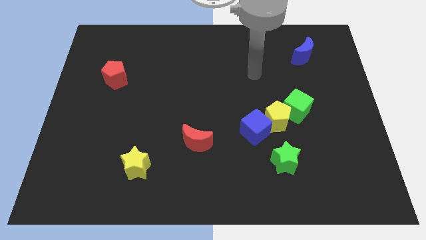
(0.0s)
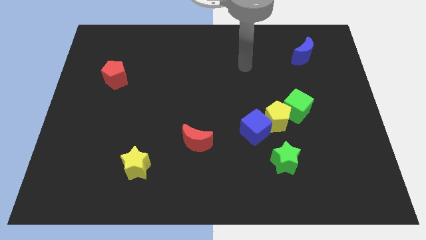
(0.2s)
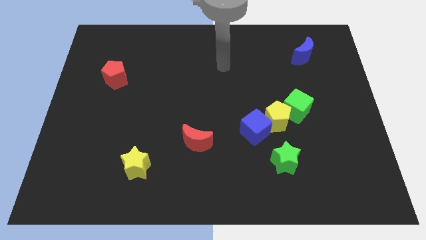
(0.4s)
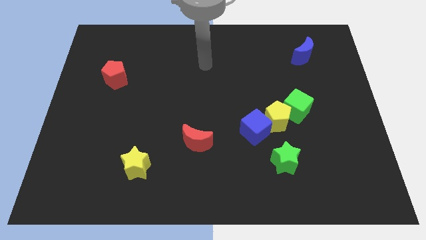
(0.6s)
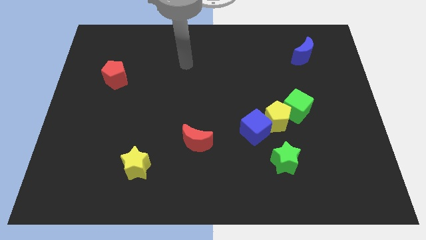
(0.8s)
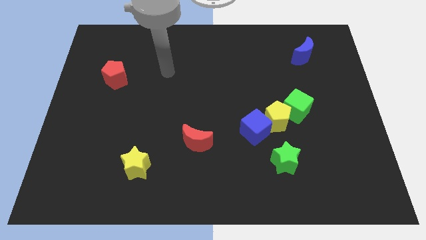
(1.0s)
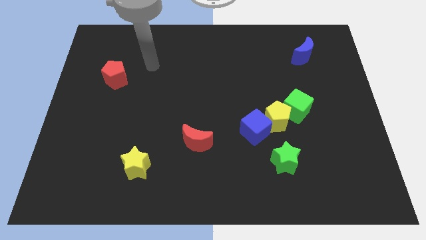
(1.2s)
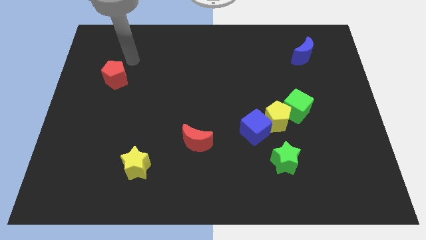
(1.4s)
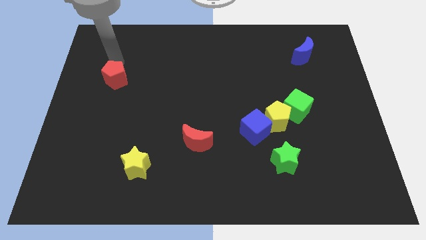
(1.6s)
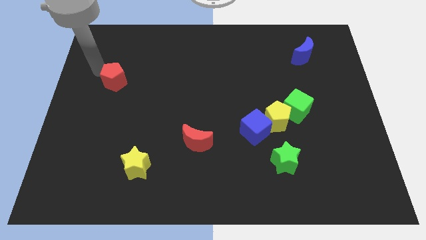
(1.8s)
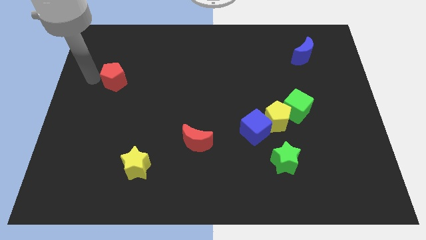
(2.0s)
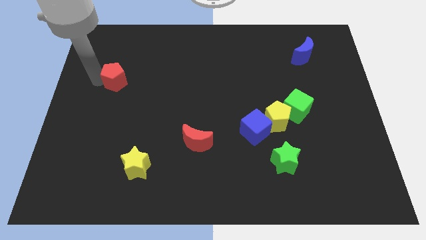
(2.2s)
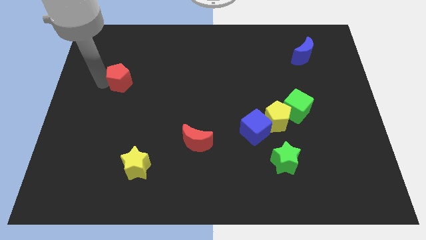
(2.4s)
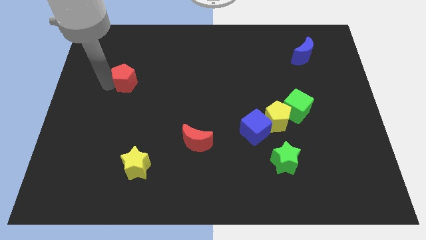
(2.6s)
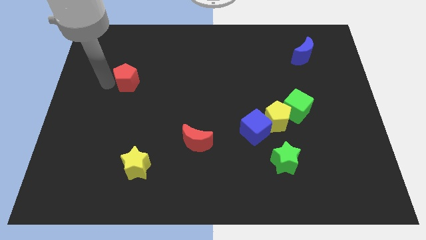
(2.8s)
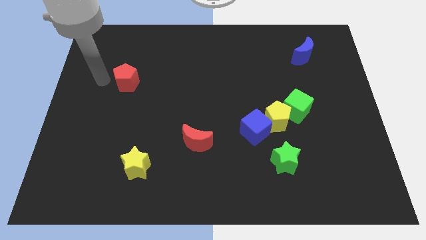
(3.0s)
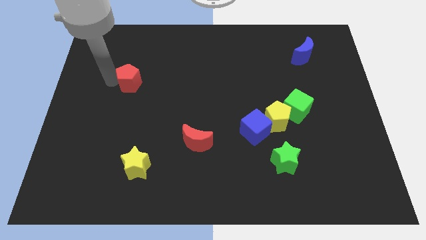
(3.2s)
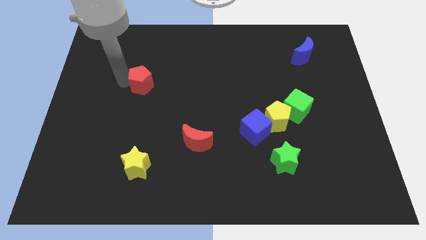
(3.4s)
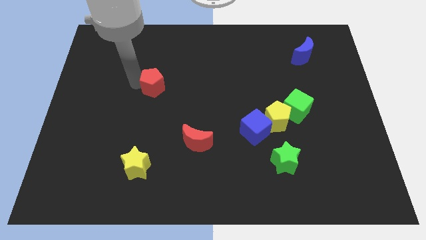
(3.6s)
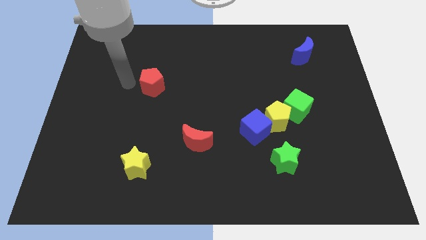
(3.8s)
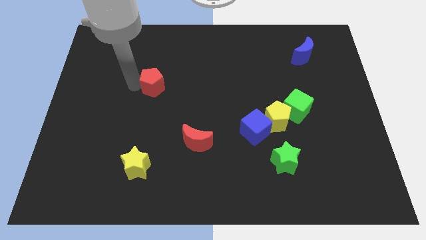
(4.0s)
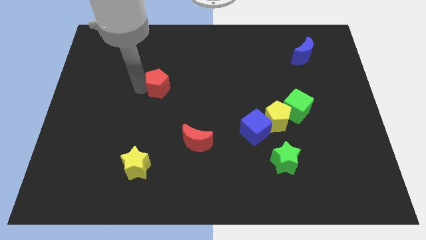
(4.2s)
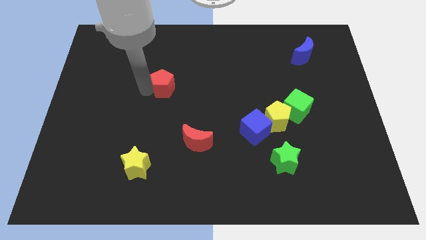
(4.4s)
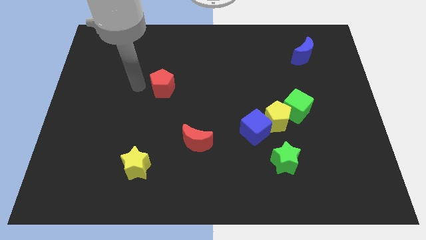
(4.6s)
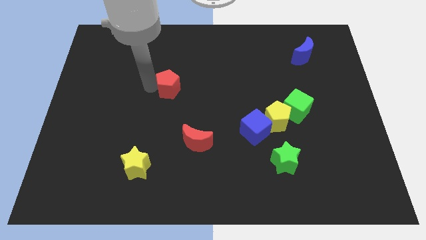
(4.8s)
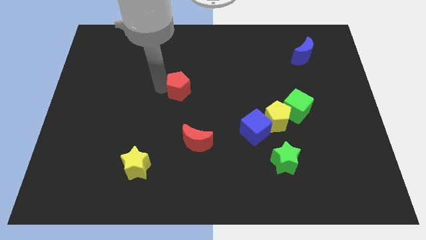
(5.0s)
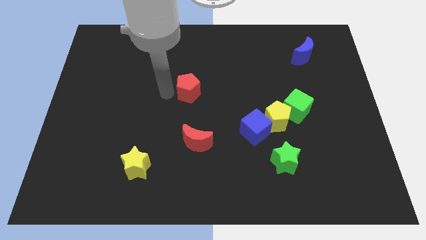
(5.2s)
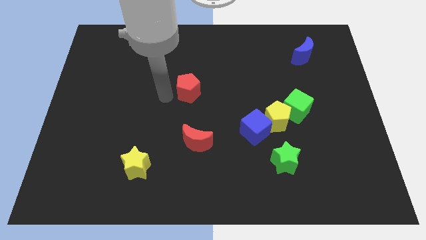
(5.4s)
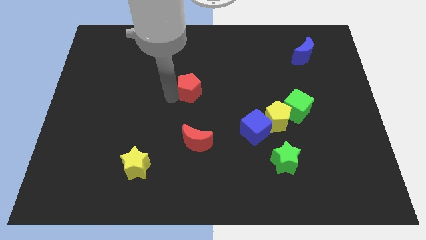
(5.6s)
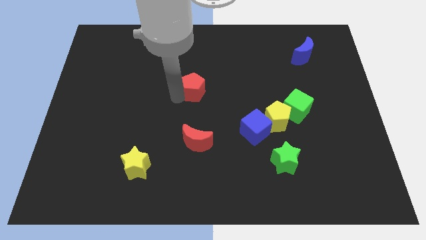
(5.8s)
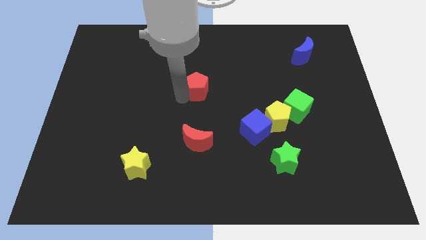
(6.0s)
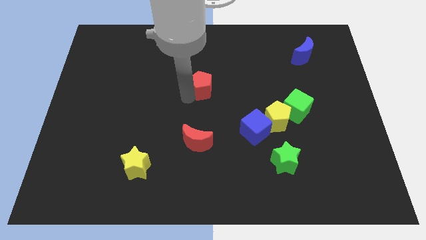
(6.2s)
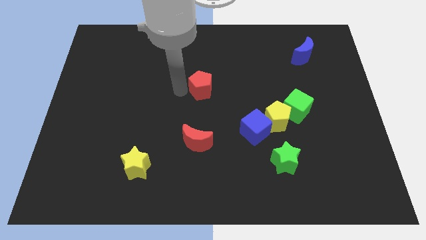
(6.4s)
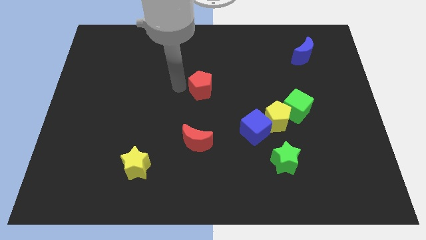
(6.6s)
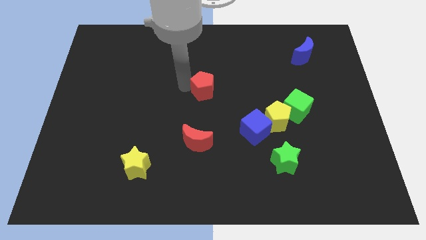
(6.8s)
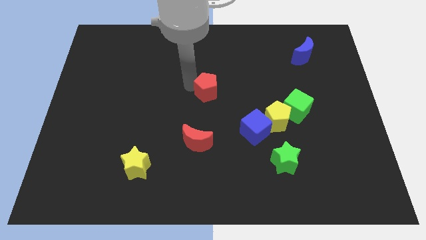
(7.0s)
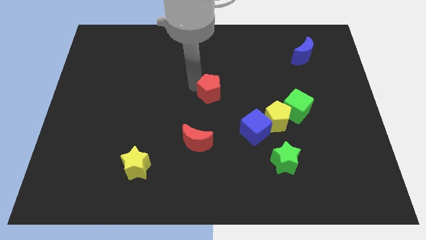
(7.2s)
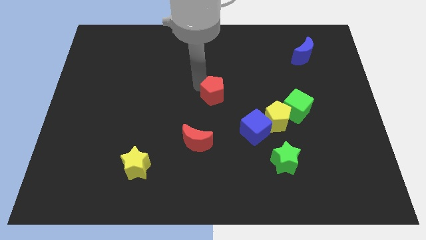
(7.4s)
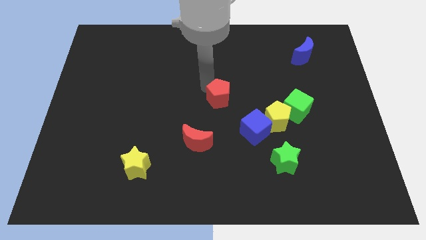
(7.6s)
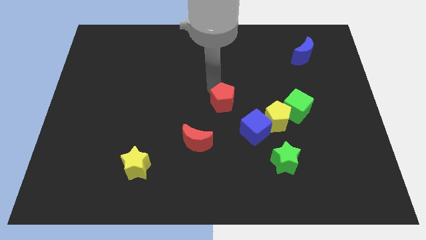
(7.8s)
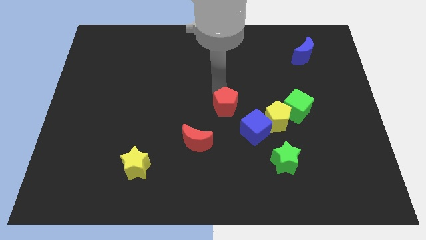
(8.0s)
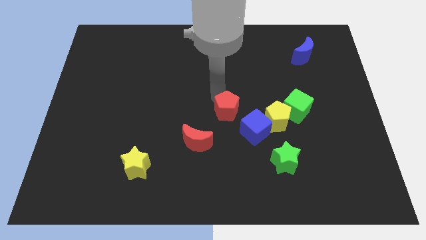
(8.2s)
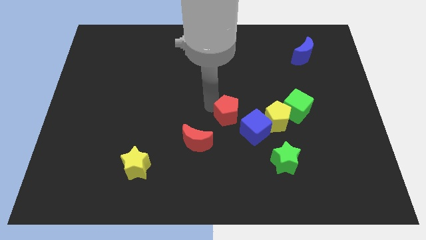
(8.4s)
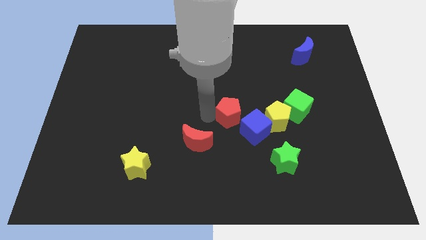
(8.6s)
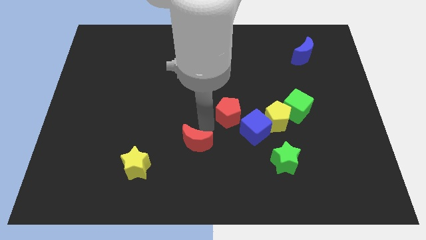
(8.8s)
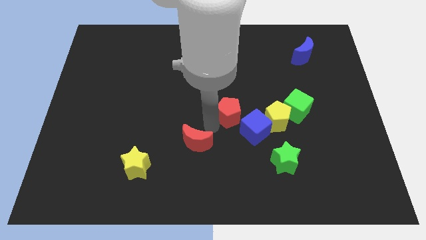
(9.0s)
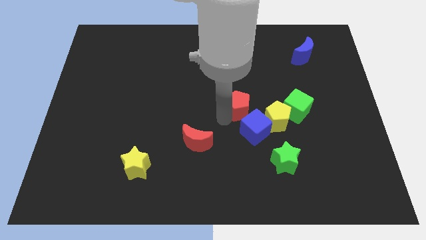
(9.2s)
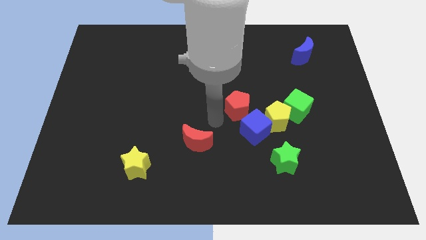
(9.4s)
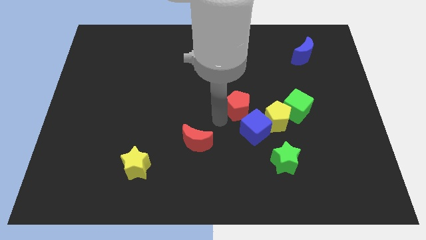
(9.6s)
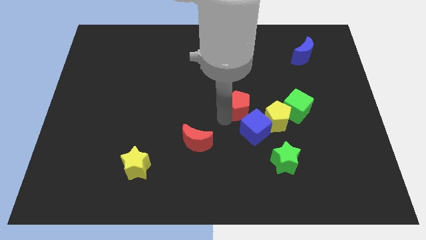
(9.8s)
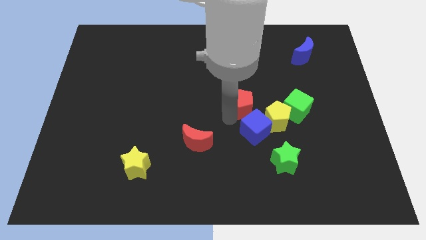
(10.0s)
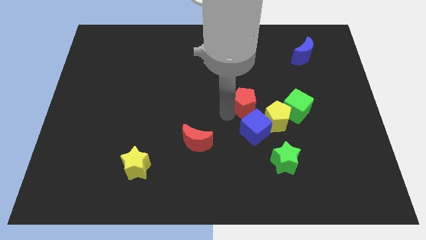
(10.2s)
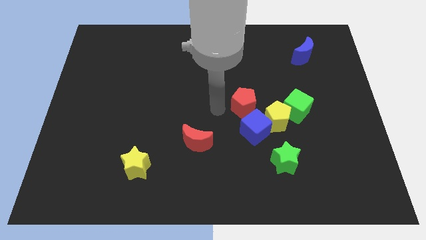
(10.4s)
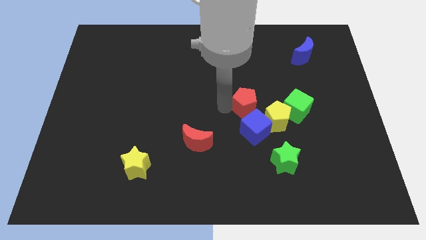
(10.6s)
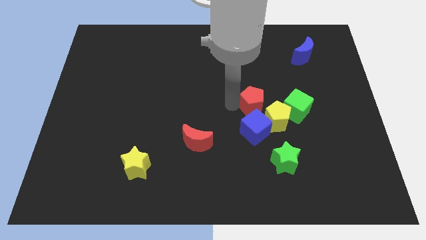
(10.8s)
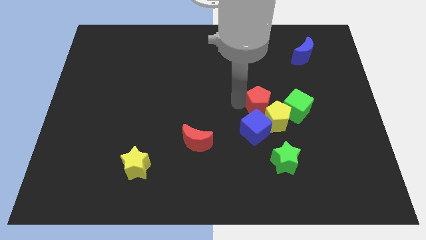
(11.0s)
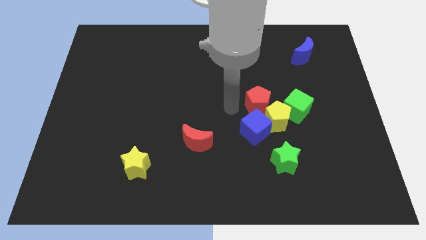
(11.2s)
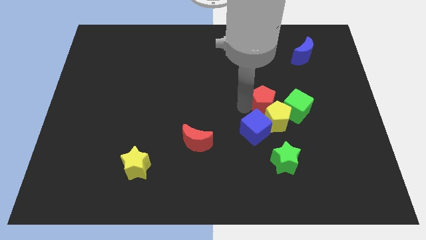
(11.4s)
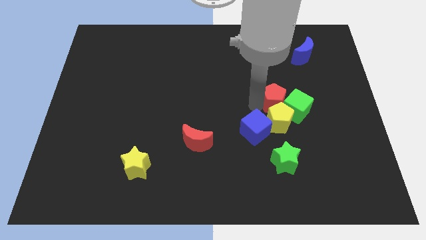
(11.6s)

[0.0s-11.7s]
slide the red pentagon close to the green cube

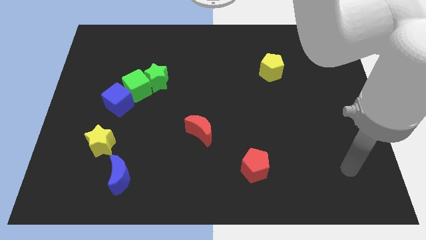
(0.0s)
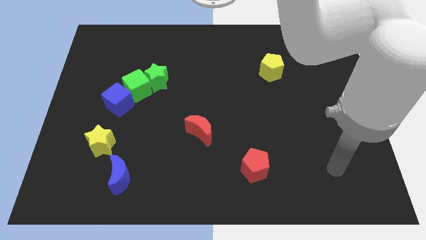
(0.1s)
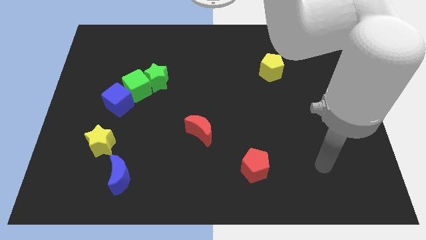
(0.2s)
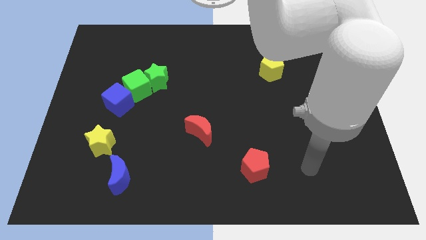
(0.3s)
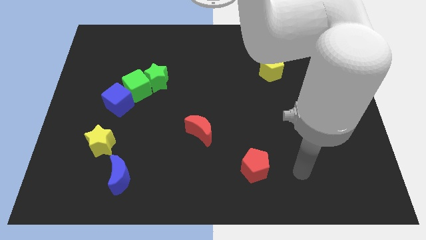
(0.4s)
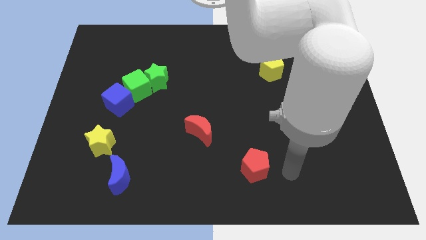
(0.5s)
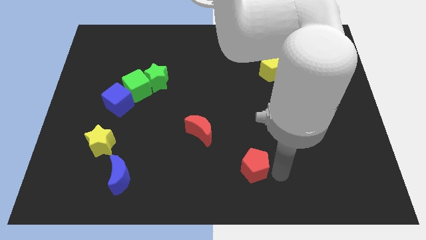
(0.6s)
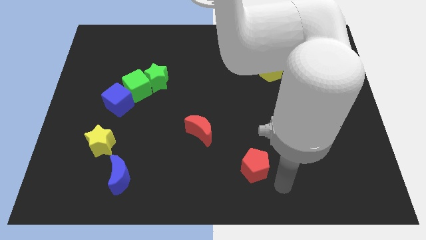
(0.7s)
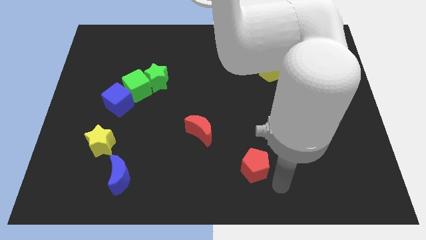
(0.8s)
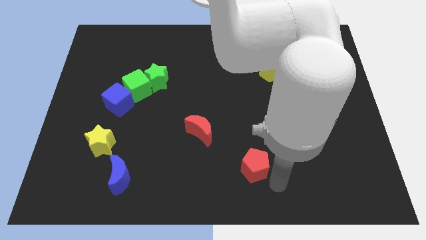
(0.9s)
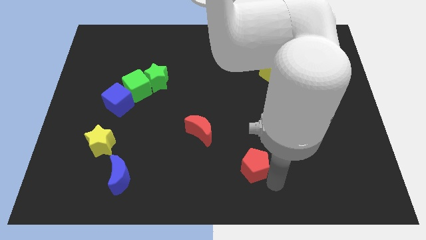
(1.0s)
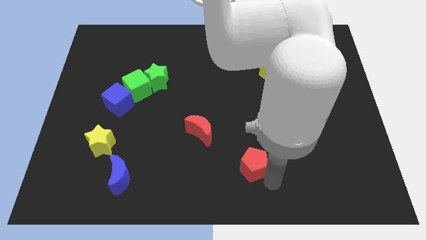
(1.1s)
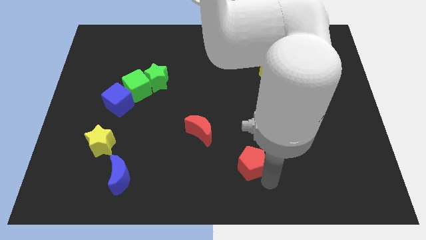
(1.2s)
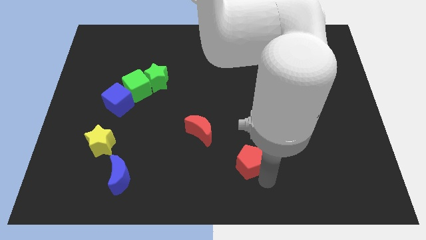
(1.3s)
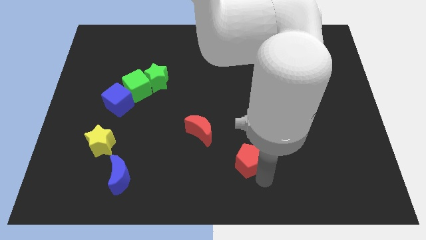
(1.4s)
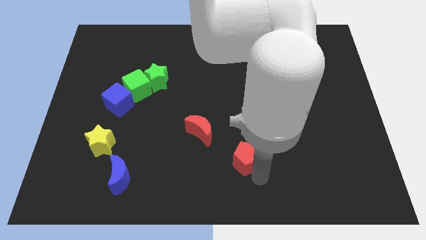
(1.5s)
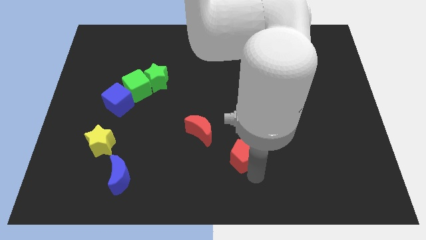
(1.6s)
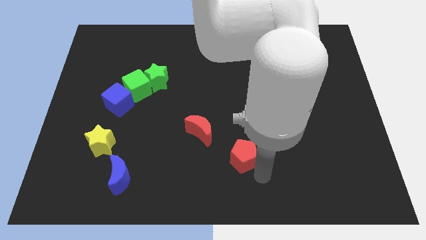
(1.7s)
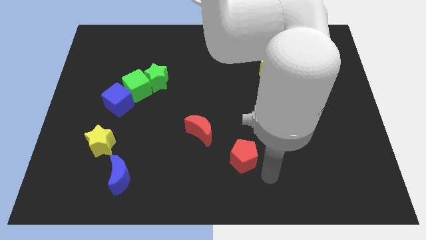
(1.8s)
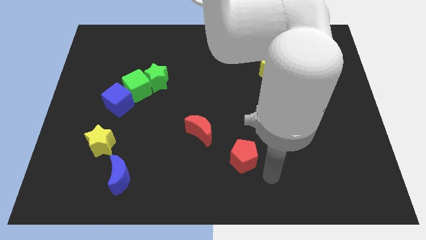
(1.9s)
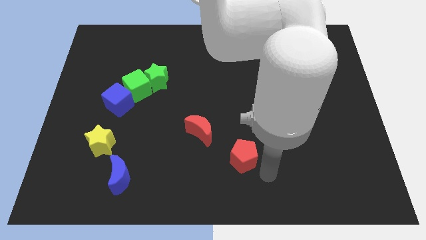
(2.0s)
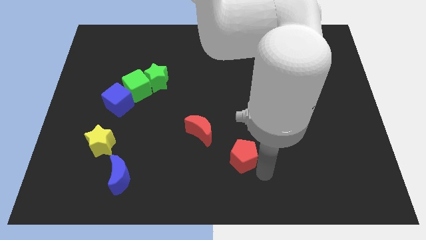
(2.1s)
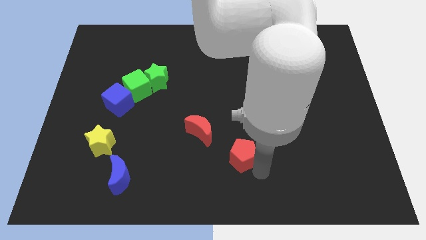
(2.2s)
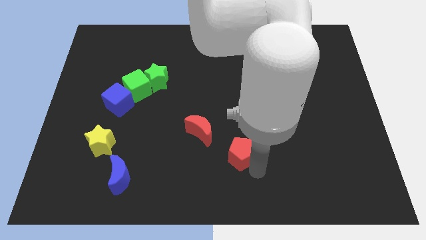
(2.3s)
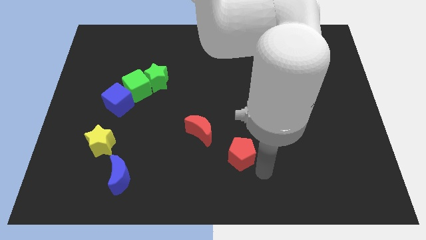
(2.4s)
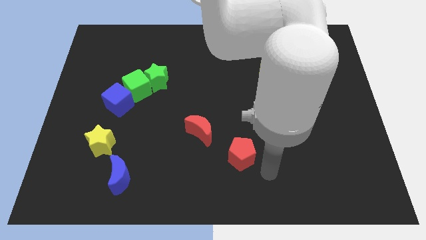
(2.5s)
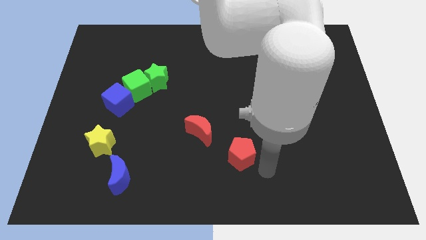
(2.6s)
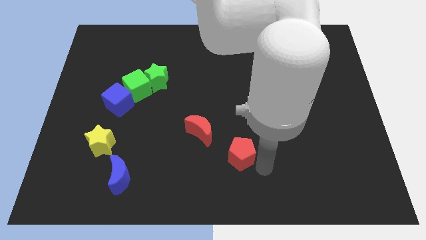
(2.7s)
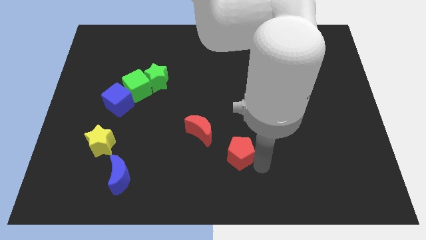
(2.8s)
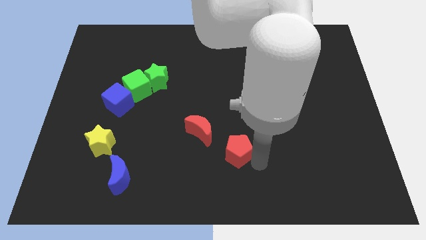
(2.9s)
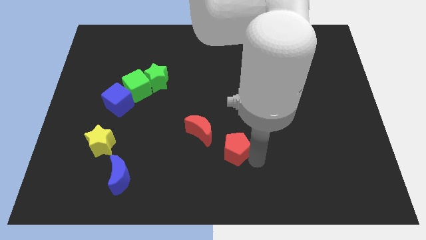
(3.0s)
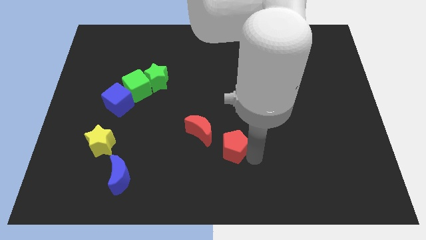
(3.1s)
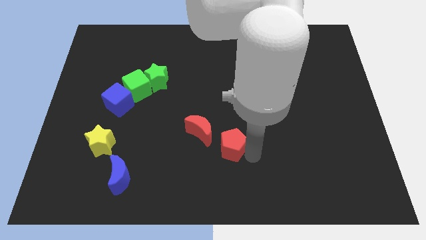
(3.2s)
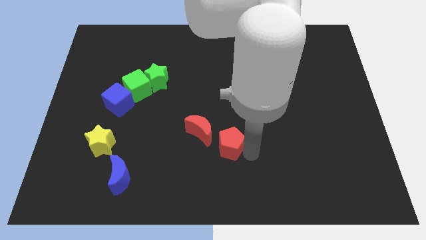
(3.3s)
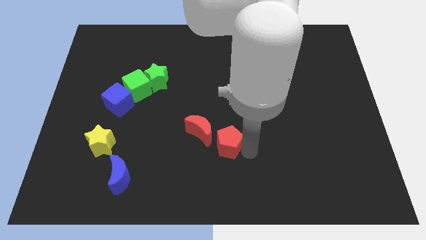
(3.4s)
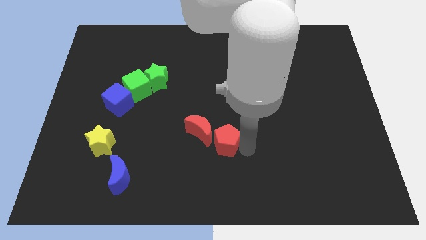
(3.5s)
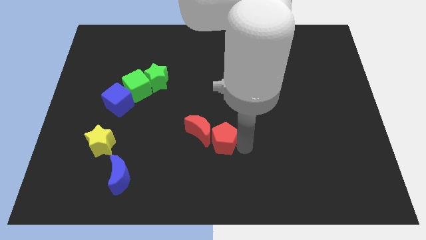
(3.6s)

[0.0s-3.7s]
move the red pentagon close to the red moon
